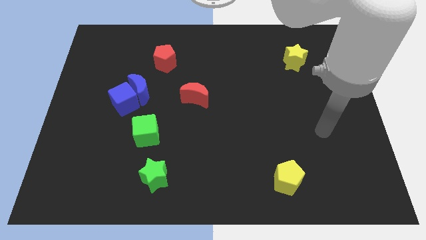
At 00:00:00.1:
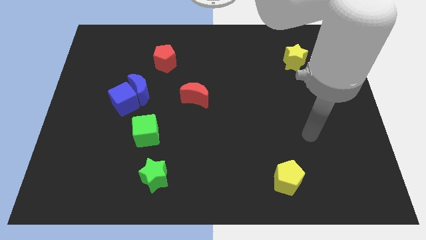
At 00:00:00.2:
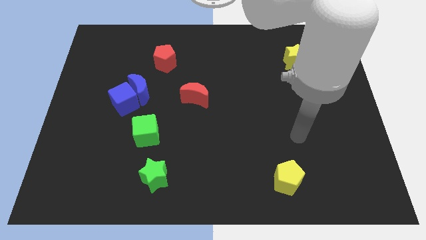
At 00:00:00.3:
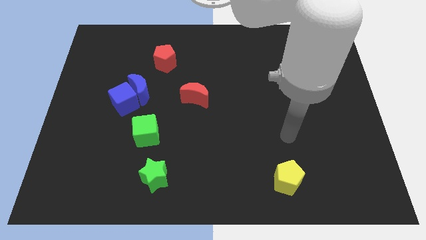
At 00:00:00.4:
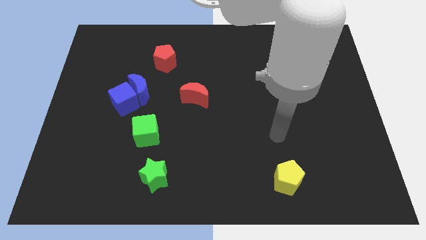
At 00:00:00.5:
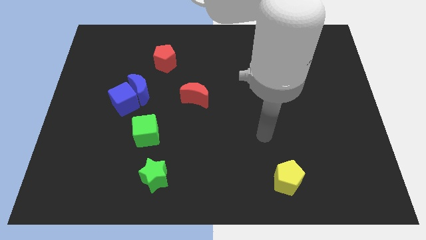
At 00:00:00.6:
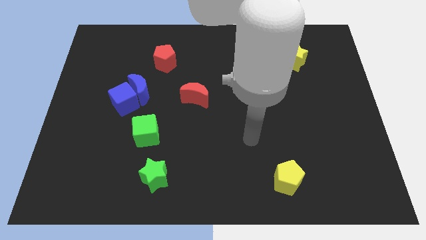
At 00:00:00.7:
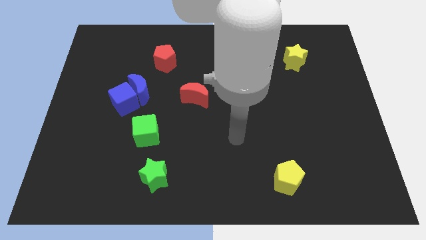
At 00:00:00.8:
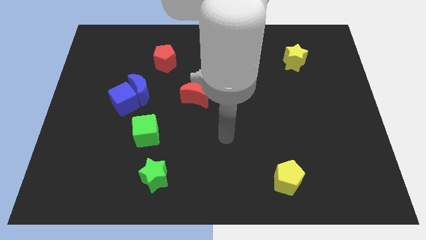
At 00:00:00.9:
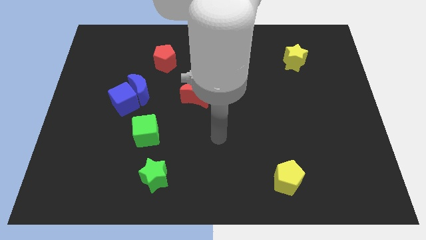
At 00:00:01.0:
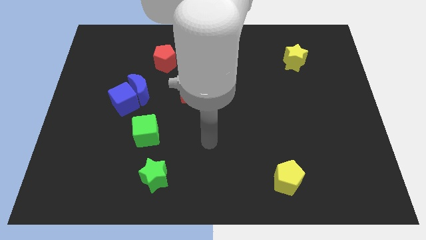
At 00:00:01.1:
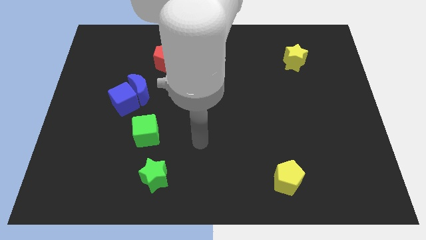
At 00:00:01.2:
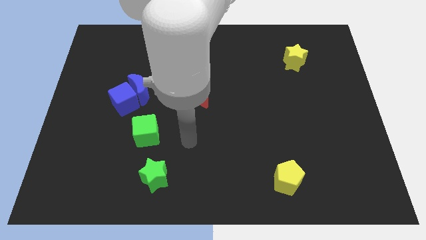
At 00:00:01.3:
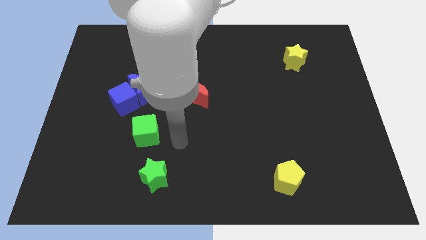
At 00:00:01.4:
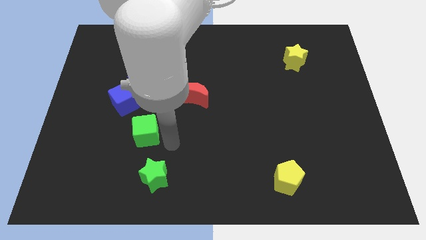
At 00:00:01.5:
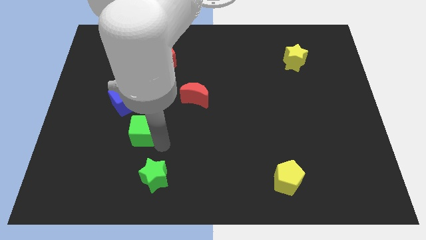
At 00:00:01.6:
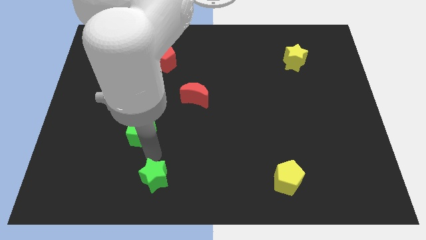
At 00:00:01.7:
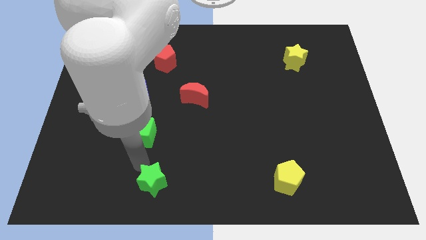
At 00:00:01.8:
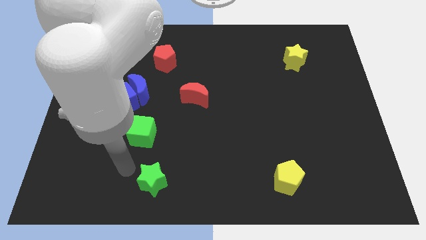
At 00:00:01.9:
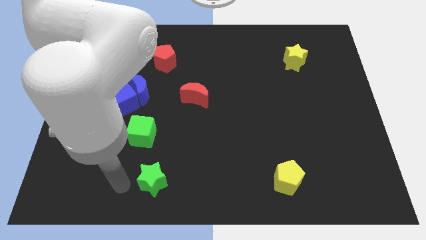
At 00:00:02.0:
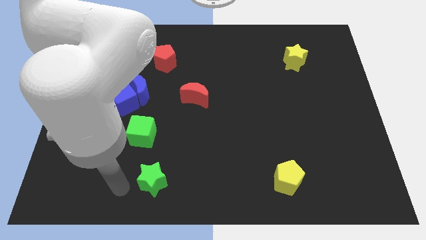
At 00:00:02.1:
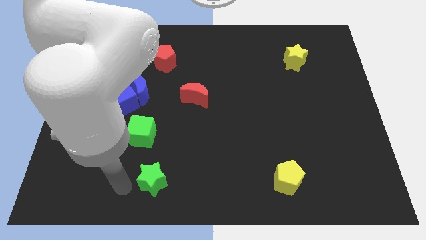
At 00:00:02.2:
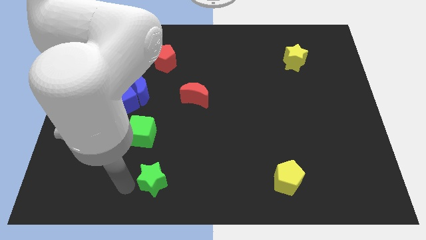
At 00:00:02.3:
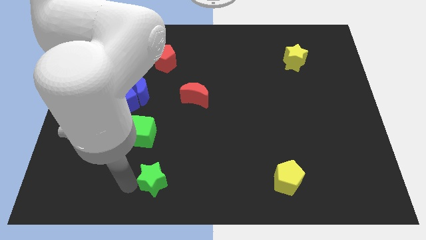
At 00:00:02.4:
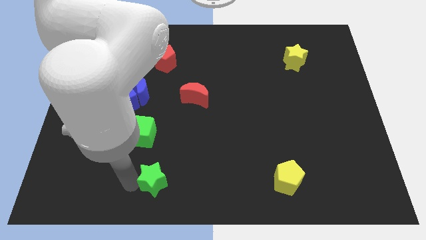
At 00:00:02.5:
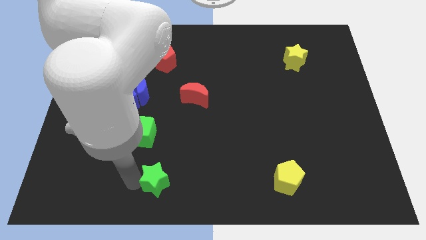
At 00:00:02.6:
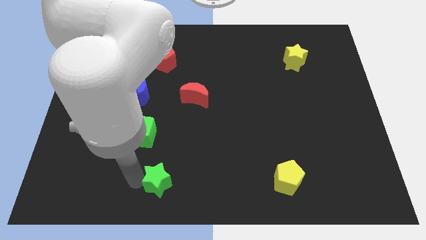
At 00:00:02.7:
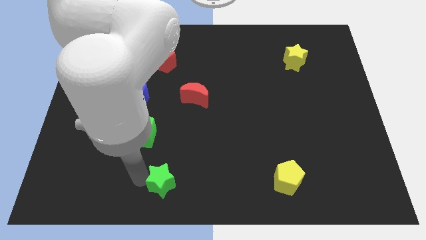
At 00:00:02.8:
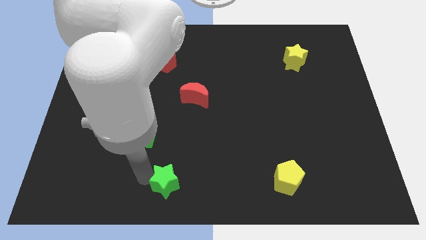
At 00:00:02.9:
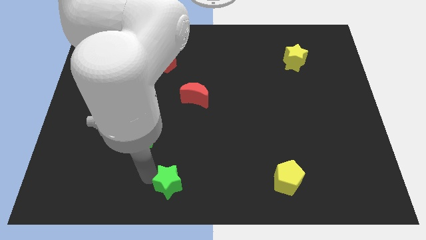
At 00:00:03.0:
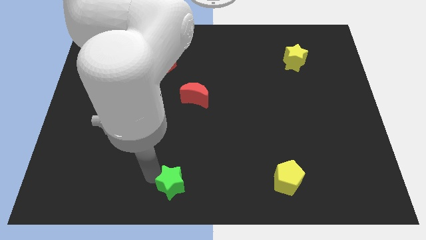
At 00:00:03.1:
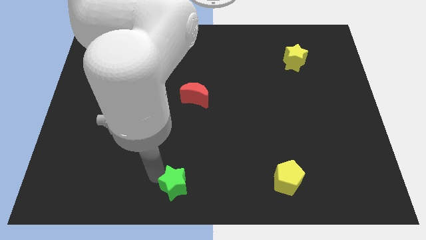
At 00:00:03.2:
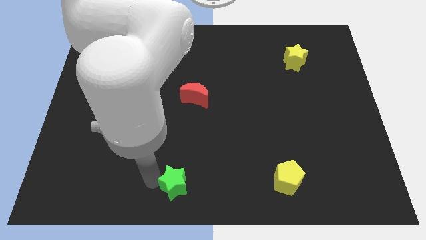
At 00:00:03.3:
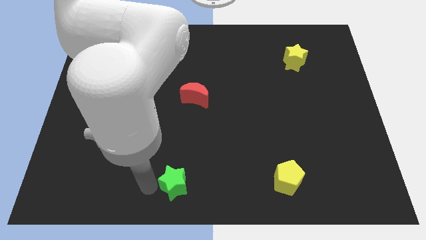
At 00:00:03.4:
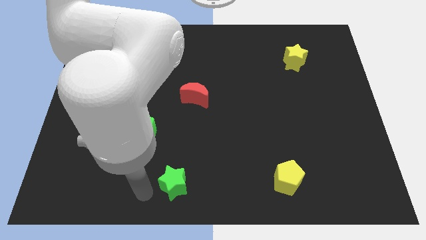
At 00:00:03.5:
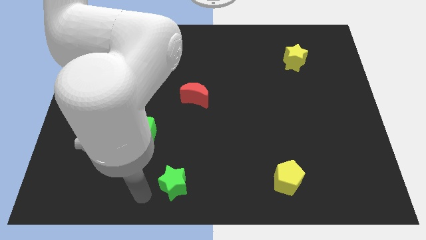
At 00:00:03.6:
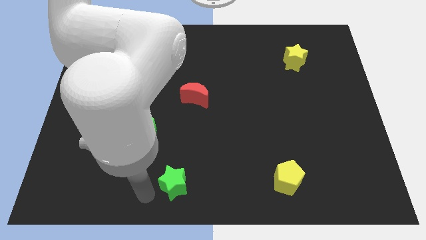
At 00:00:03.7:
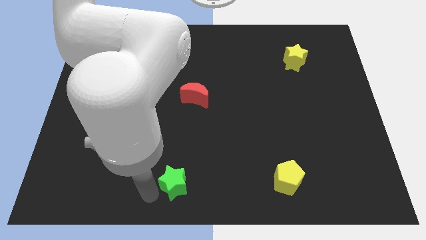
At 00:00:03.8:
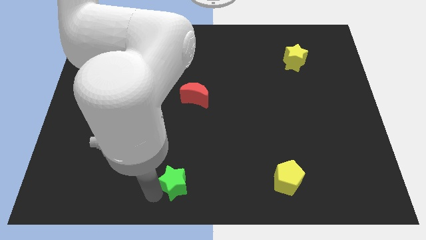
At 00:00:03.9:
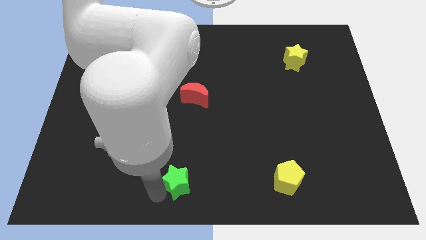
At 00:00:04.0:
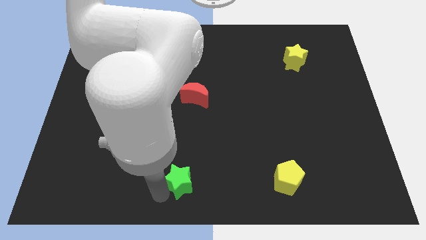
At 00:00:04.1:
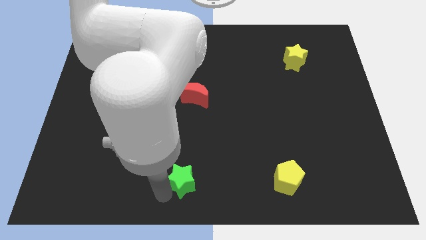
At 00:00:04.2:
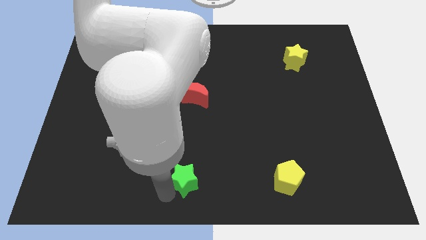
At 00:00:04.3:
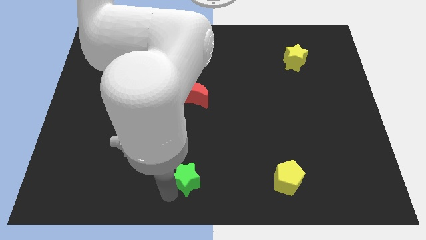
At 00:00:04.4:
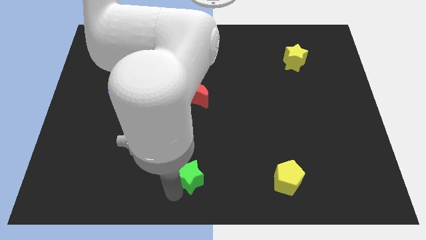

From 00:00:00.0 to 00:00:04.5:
slightly push the green star right

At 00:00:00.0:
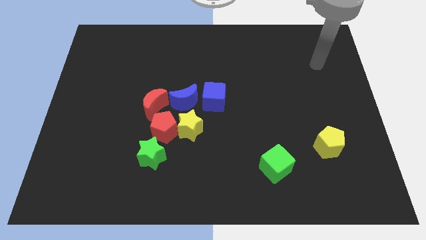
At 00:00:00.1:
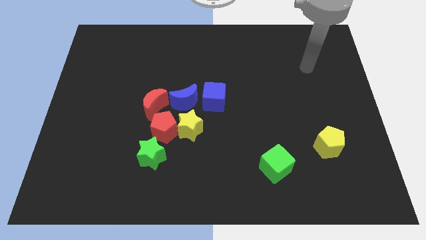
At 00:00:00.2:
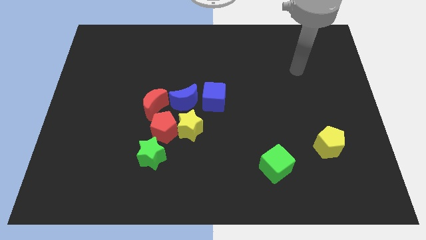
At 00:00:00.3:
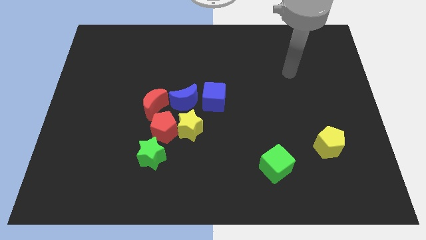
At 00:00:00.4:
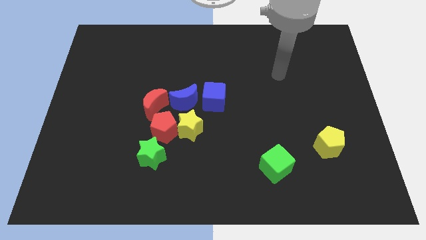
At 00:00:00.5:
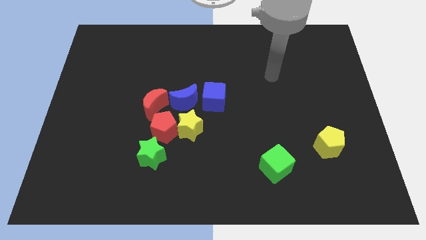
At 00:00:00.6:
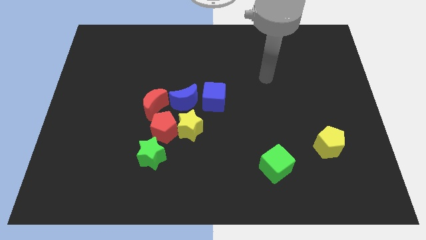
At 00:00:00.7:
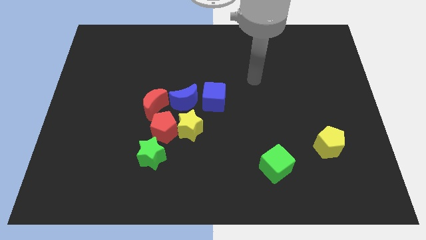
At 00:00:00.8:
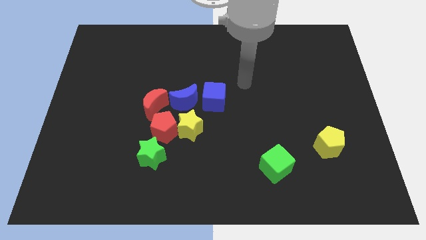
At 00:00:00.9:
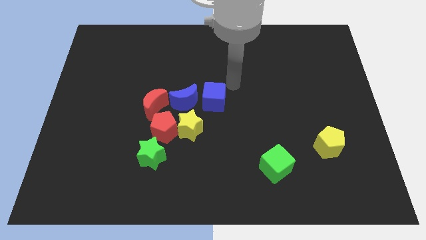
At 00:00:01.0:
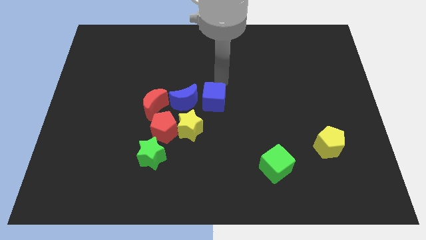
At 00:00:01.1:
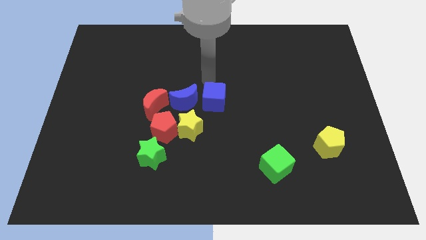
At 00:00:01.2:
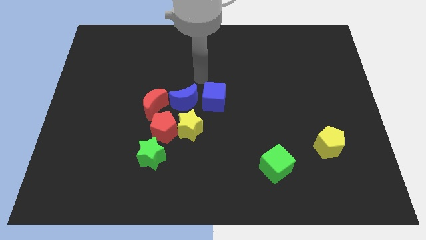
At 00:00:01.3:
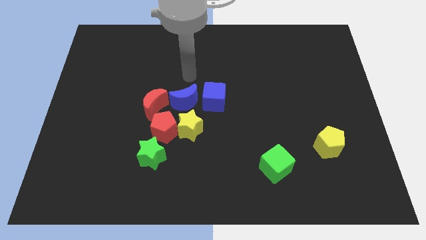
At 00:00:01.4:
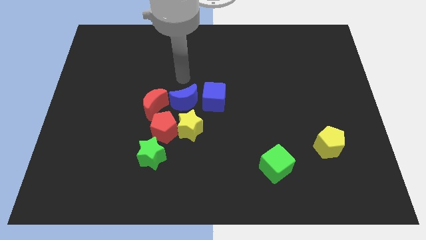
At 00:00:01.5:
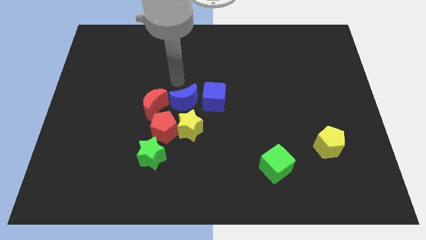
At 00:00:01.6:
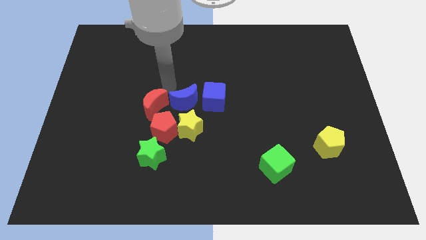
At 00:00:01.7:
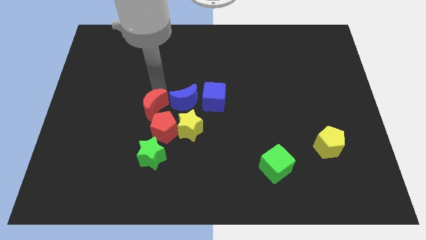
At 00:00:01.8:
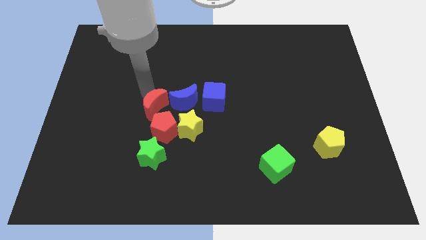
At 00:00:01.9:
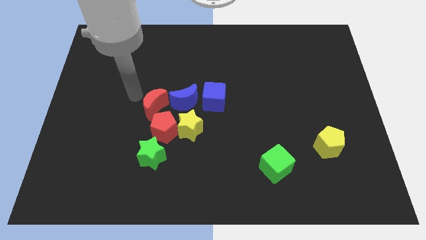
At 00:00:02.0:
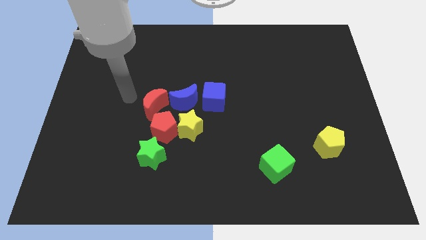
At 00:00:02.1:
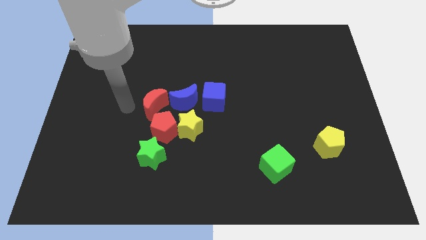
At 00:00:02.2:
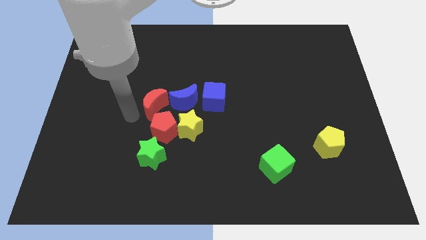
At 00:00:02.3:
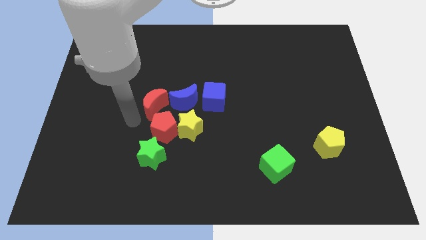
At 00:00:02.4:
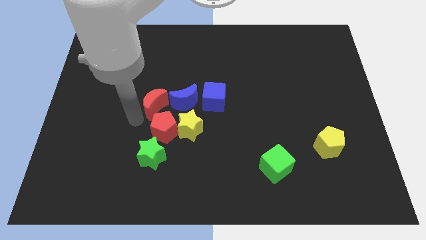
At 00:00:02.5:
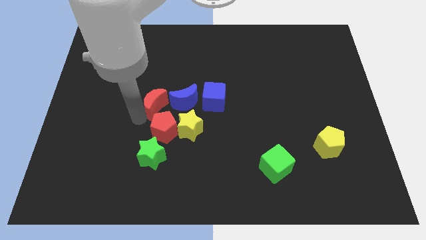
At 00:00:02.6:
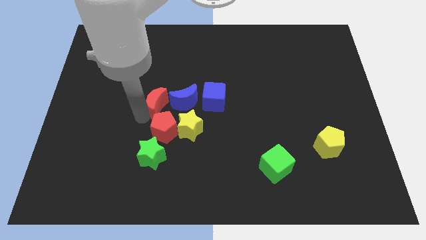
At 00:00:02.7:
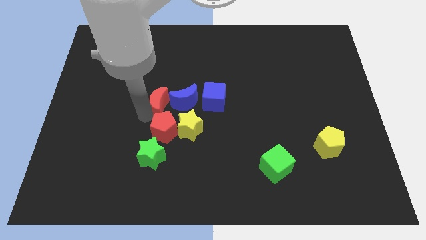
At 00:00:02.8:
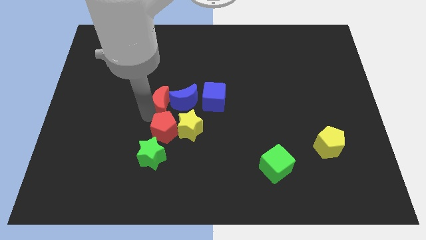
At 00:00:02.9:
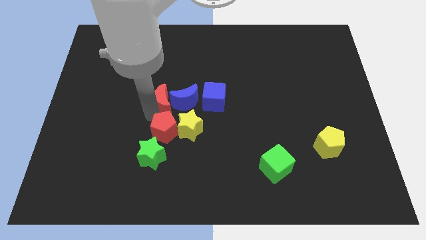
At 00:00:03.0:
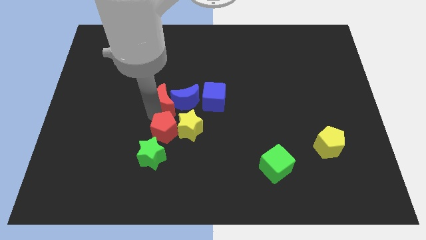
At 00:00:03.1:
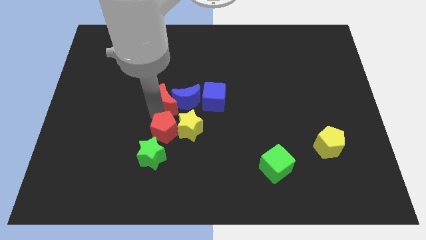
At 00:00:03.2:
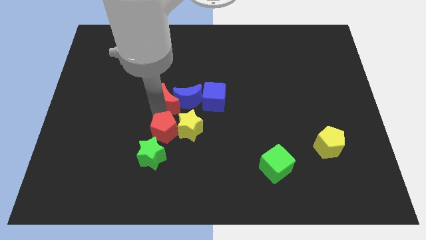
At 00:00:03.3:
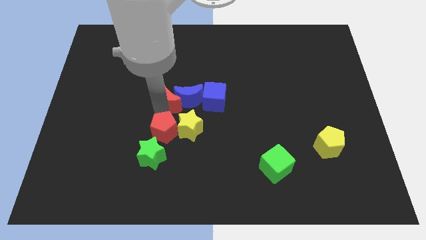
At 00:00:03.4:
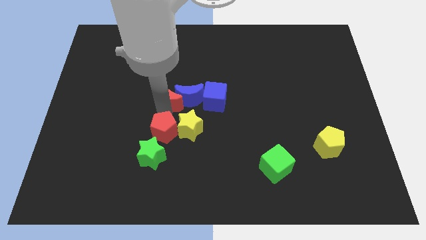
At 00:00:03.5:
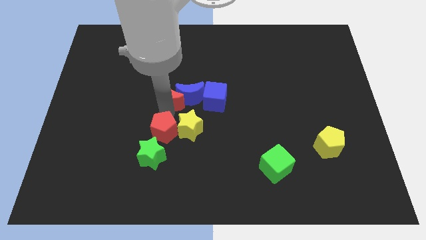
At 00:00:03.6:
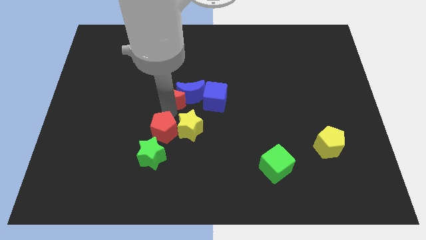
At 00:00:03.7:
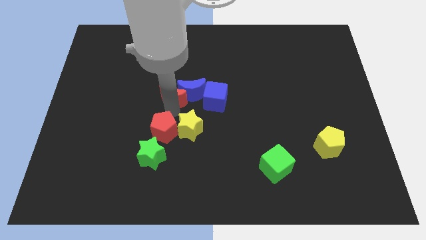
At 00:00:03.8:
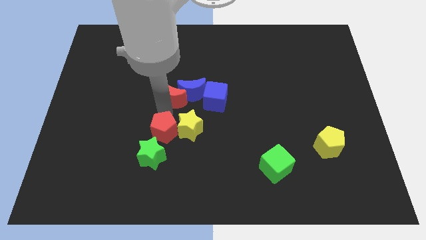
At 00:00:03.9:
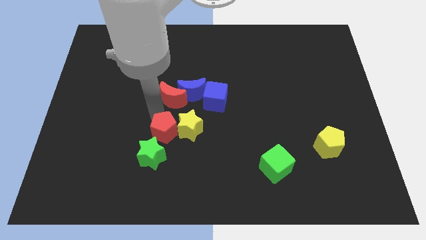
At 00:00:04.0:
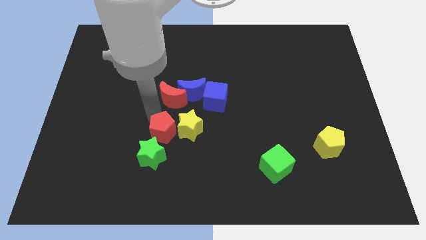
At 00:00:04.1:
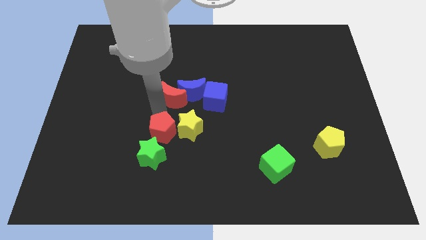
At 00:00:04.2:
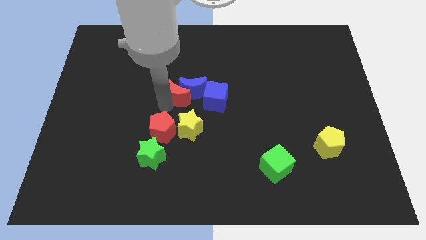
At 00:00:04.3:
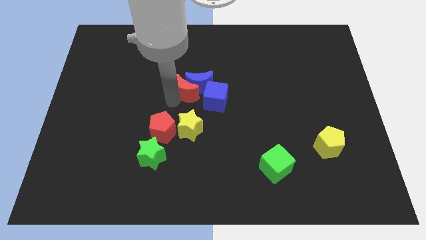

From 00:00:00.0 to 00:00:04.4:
slightly push the red moon upwards and then to the right
